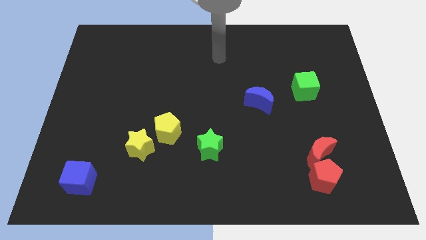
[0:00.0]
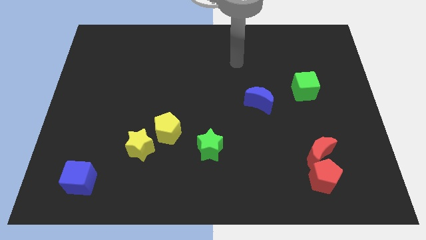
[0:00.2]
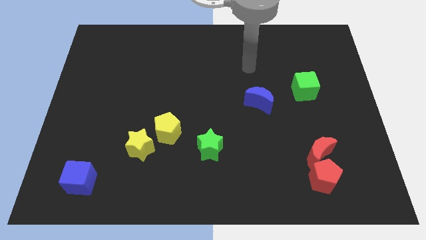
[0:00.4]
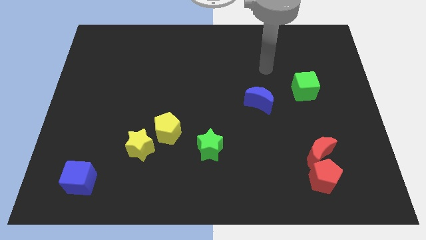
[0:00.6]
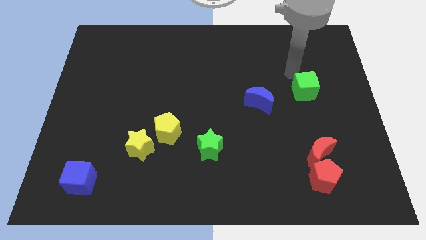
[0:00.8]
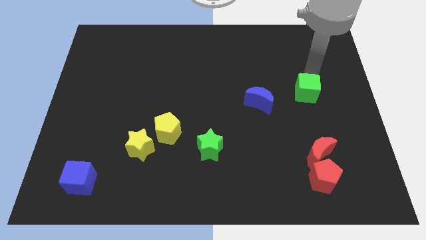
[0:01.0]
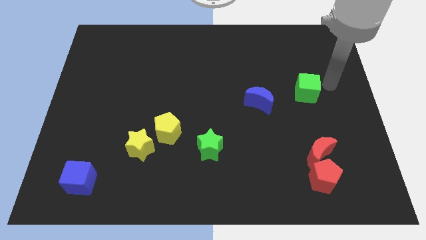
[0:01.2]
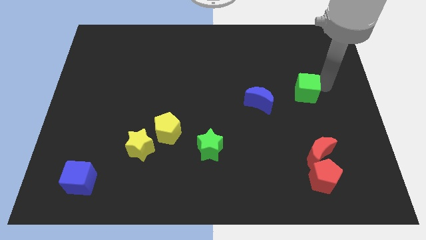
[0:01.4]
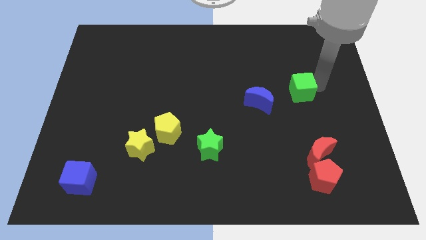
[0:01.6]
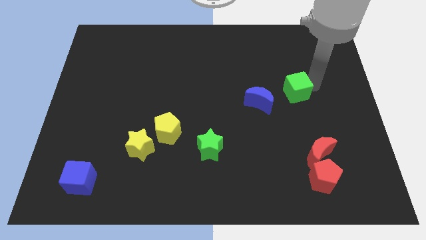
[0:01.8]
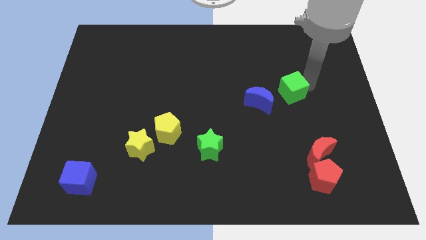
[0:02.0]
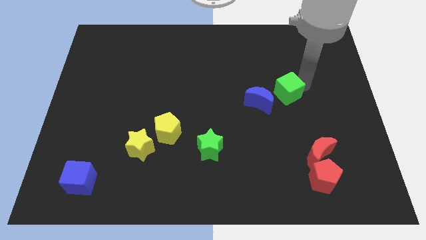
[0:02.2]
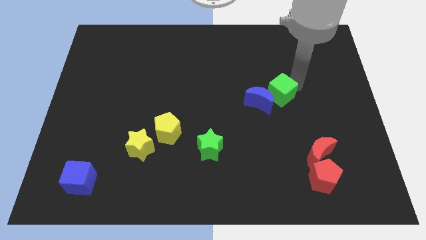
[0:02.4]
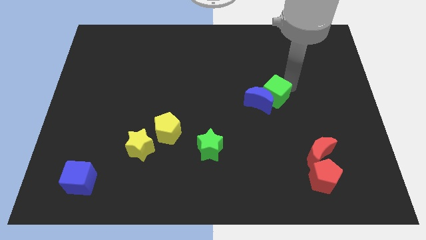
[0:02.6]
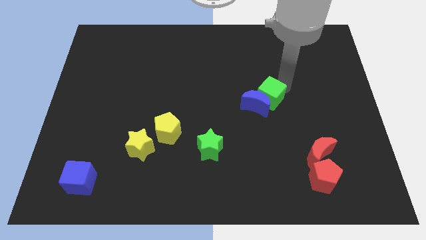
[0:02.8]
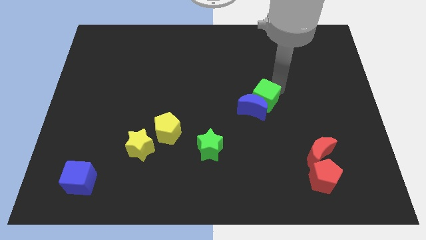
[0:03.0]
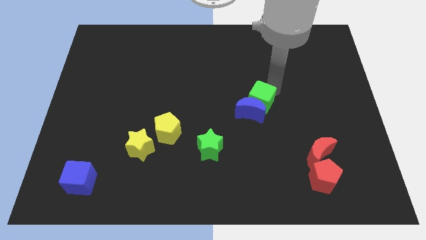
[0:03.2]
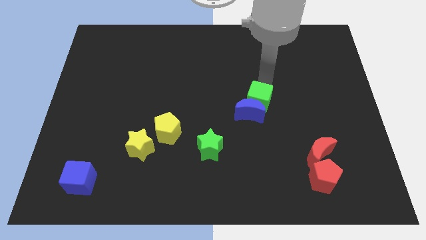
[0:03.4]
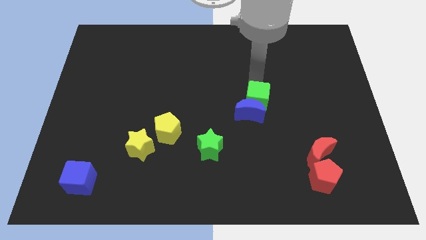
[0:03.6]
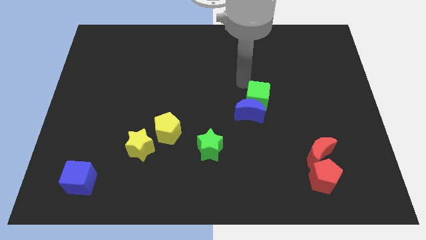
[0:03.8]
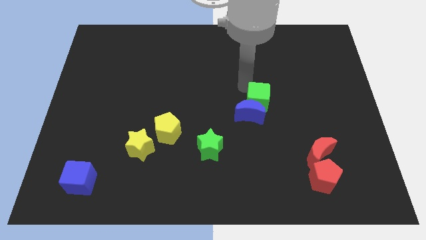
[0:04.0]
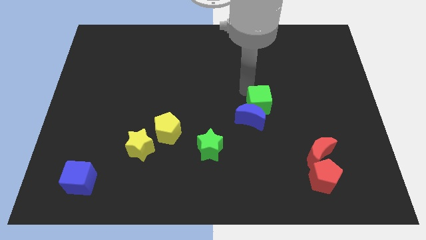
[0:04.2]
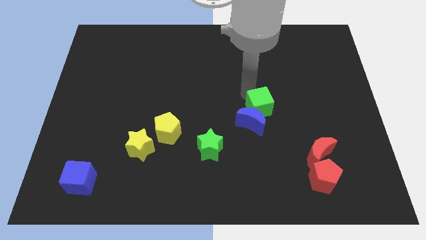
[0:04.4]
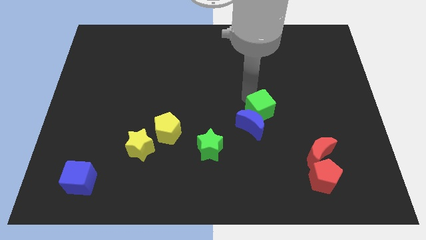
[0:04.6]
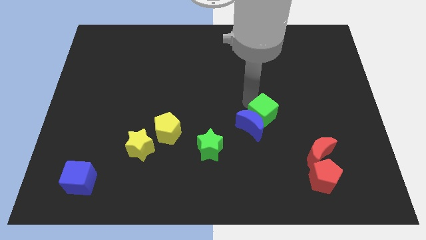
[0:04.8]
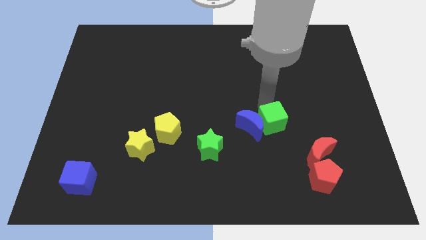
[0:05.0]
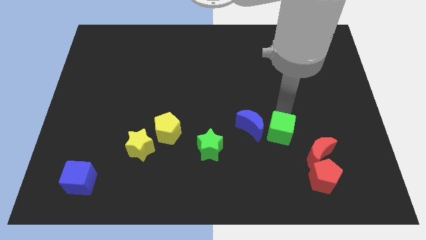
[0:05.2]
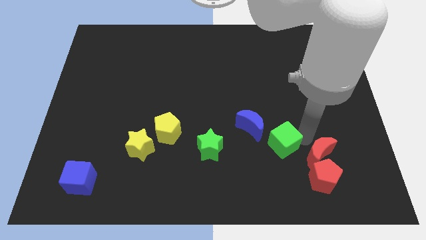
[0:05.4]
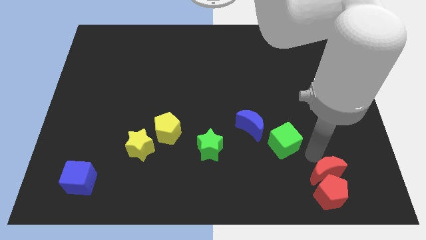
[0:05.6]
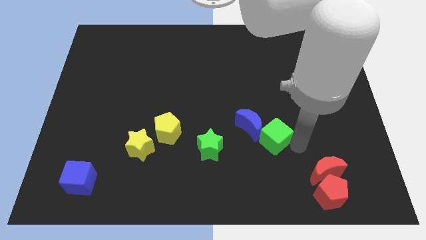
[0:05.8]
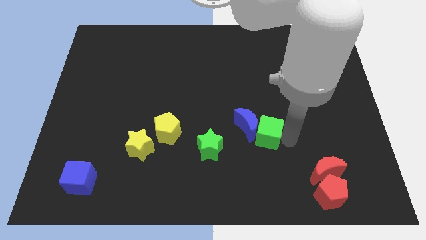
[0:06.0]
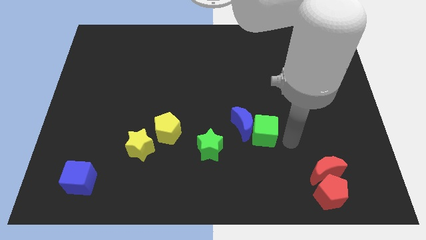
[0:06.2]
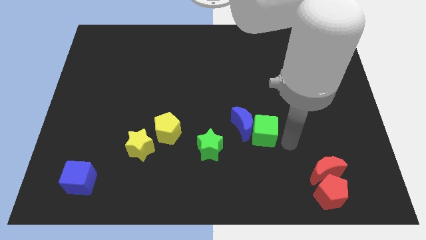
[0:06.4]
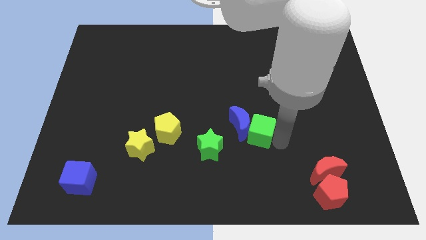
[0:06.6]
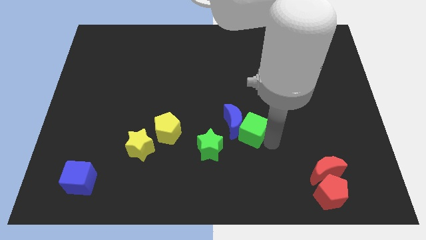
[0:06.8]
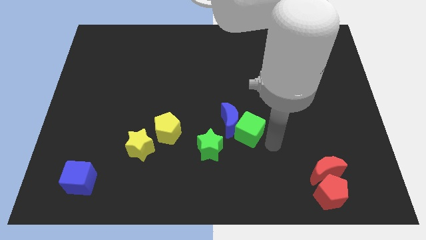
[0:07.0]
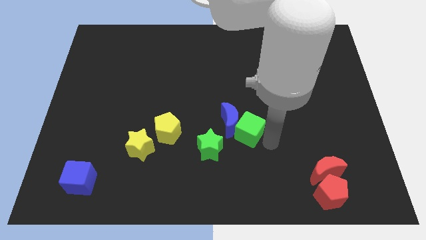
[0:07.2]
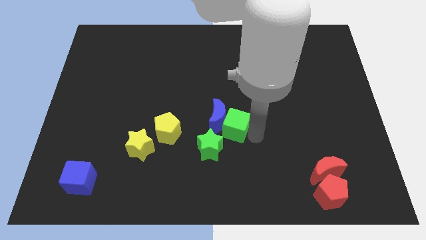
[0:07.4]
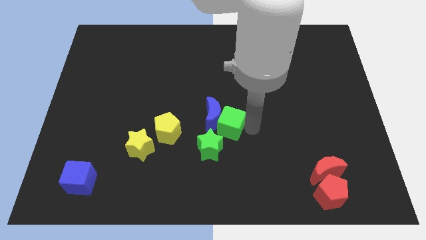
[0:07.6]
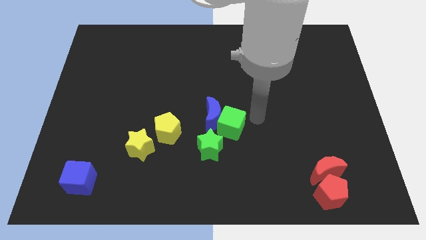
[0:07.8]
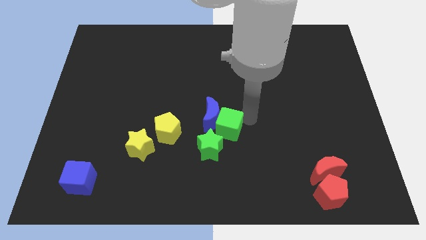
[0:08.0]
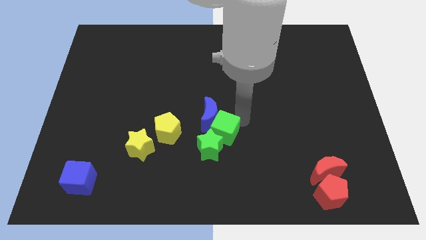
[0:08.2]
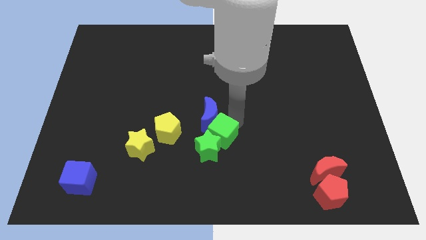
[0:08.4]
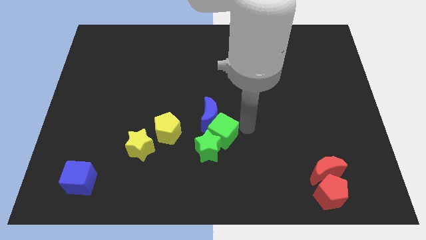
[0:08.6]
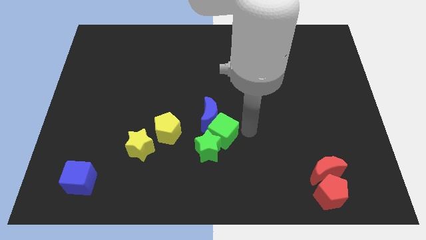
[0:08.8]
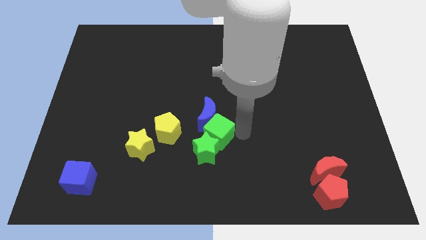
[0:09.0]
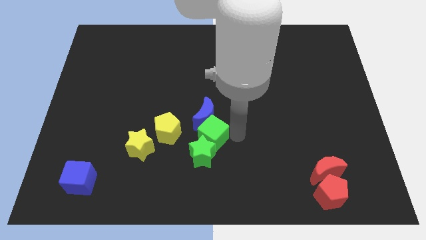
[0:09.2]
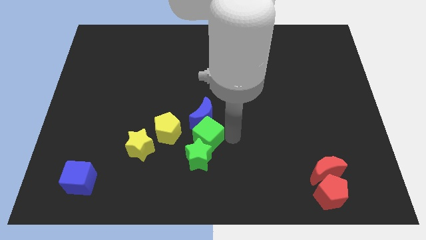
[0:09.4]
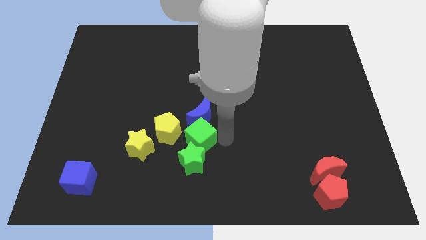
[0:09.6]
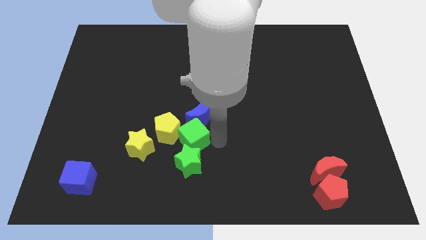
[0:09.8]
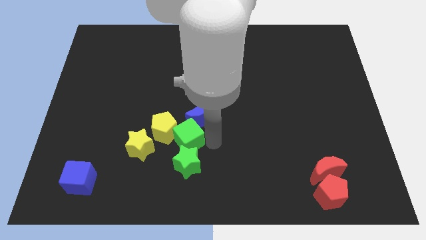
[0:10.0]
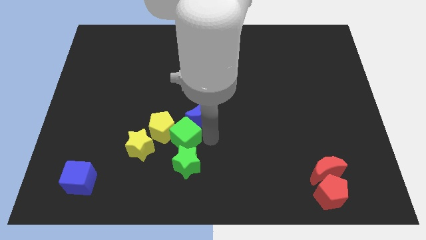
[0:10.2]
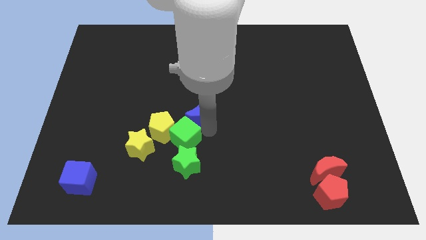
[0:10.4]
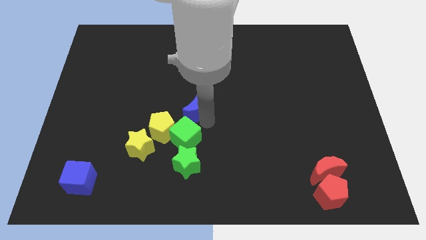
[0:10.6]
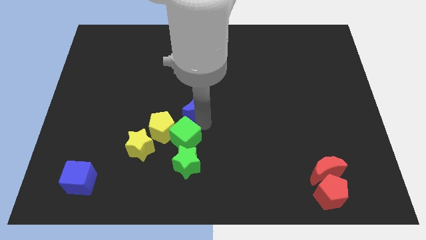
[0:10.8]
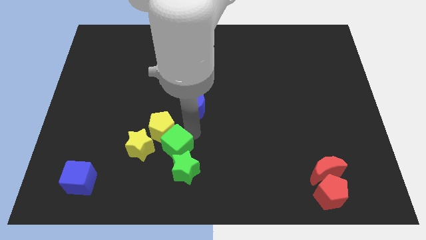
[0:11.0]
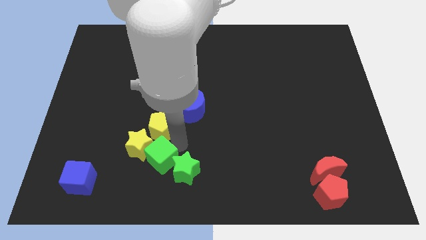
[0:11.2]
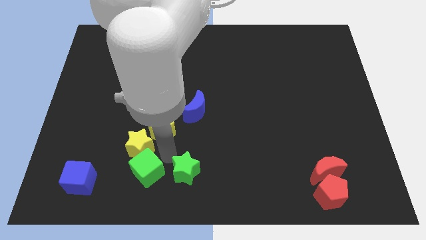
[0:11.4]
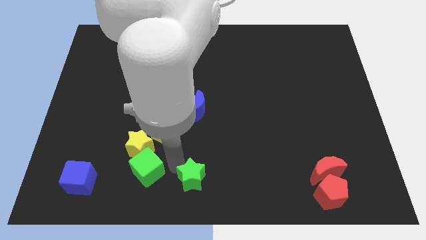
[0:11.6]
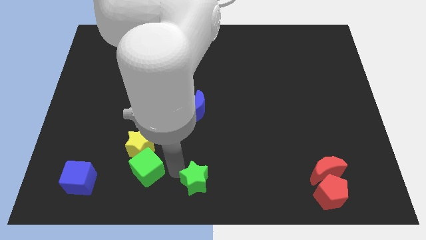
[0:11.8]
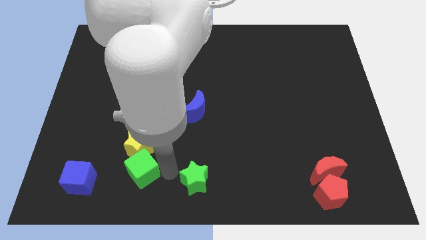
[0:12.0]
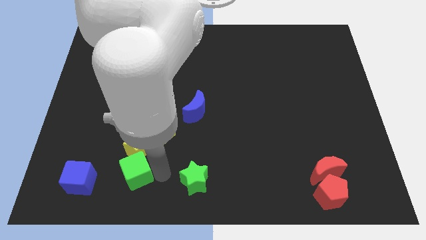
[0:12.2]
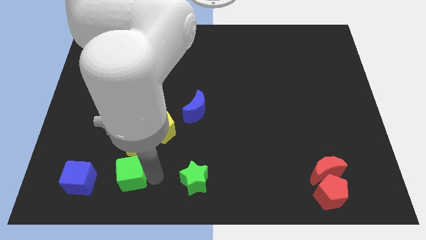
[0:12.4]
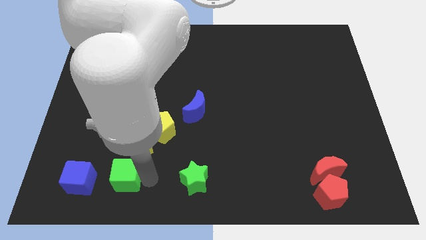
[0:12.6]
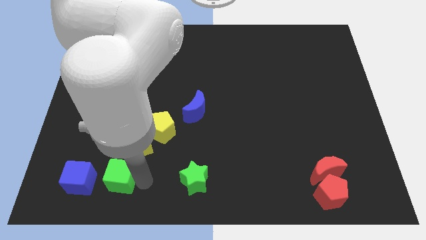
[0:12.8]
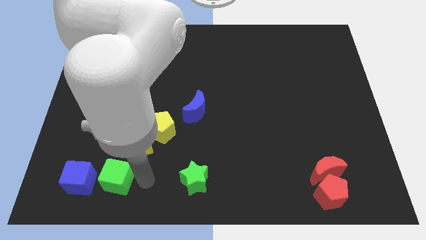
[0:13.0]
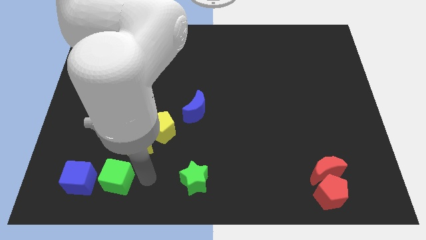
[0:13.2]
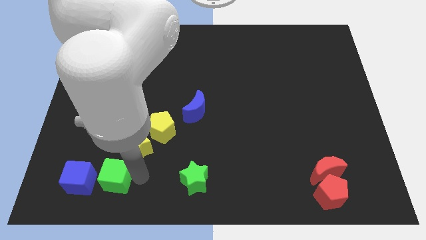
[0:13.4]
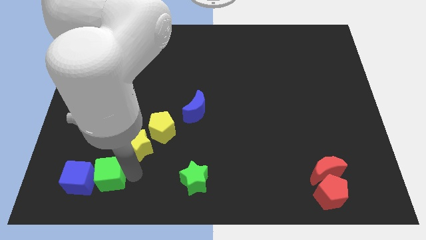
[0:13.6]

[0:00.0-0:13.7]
put the green cube to the blue cube
